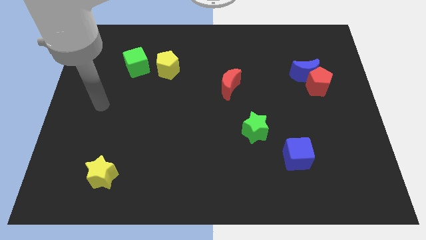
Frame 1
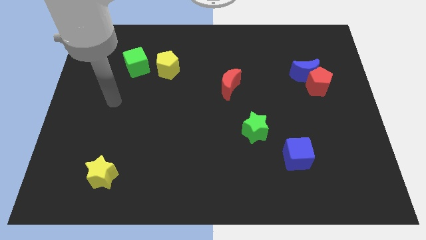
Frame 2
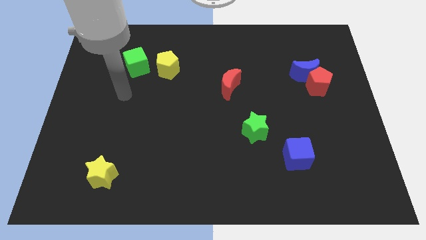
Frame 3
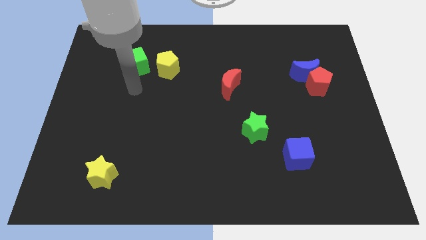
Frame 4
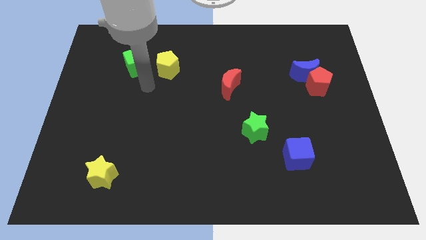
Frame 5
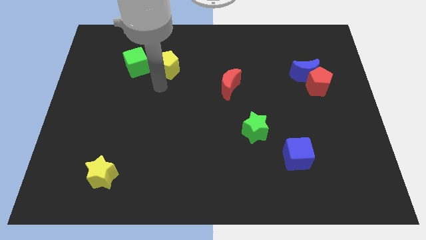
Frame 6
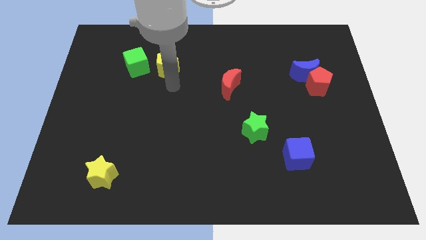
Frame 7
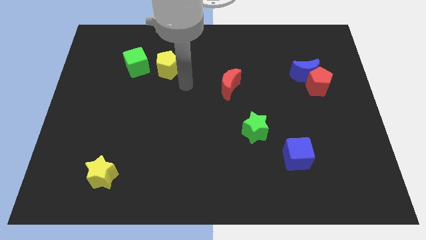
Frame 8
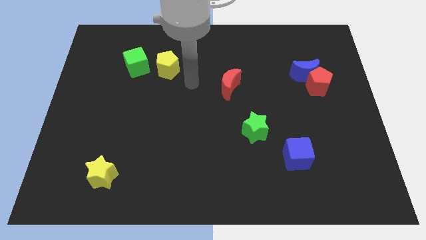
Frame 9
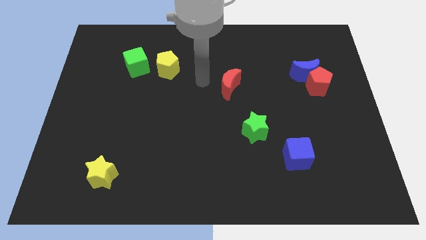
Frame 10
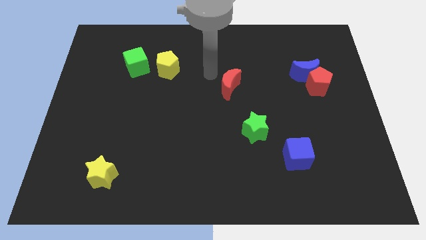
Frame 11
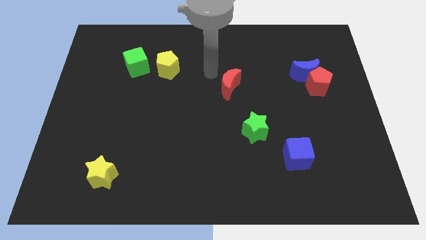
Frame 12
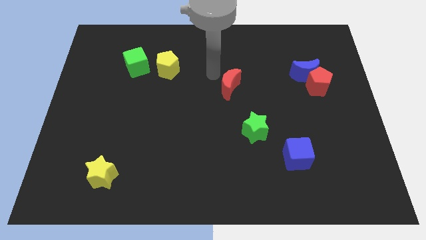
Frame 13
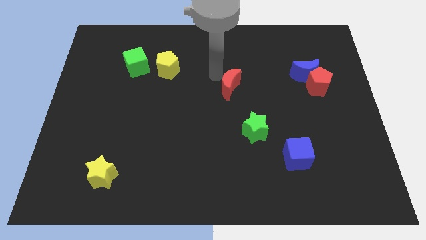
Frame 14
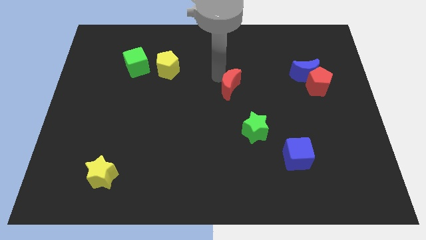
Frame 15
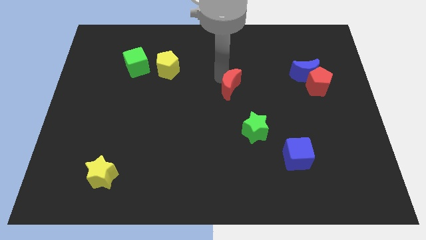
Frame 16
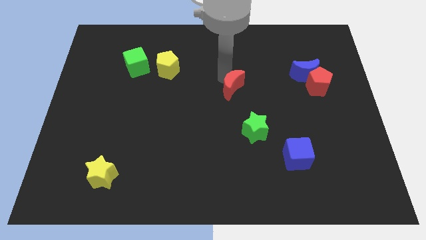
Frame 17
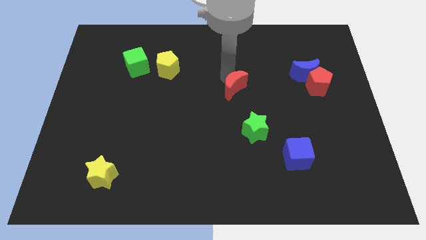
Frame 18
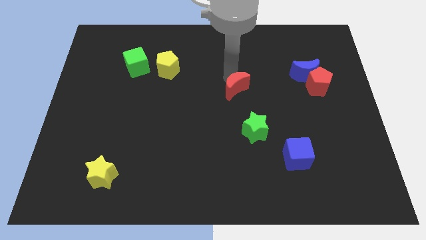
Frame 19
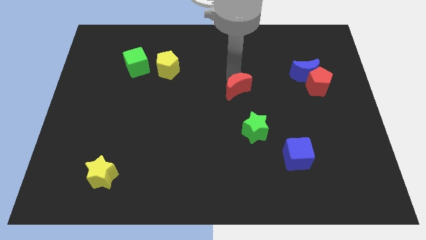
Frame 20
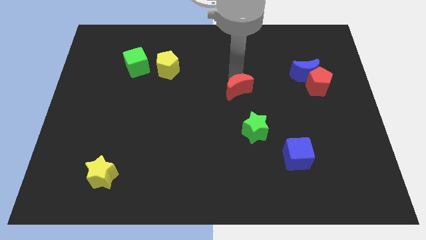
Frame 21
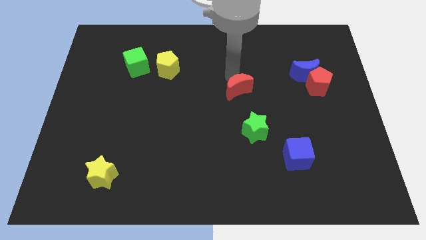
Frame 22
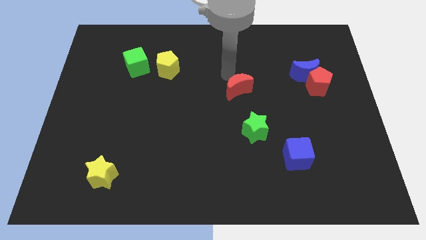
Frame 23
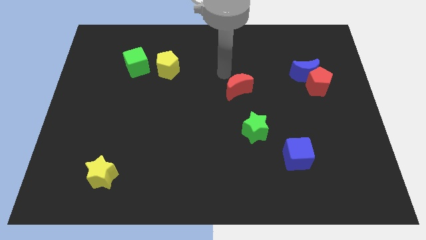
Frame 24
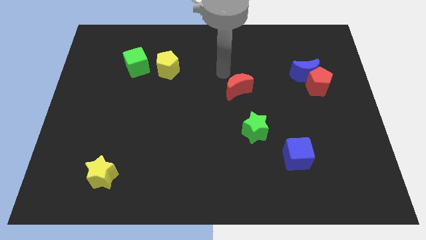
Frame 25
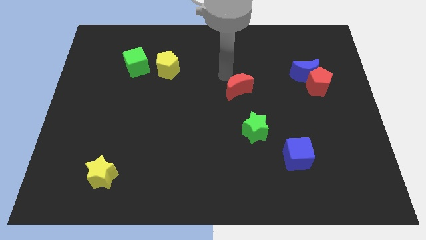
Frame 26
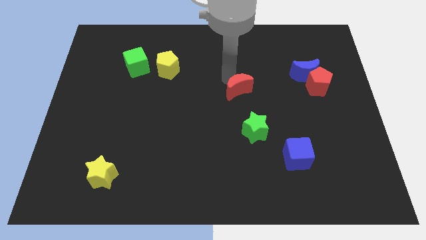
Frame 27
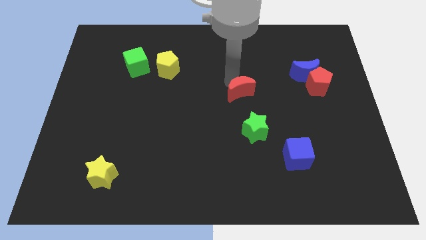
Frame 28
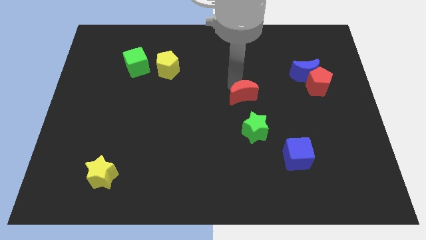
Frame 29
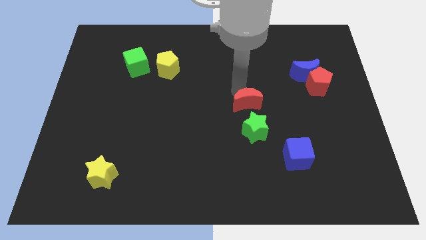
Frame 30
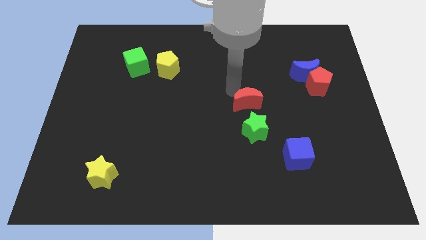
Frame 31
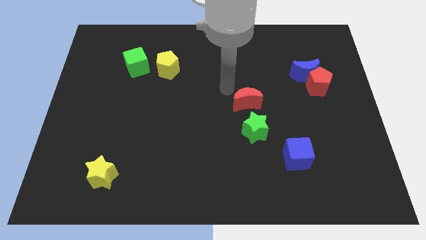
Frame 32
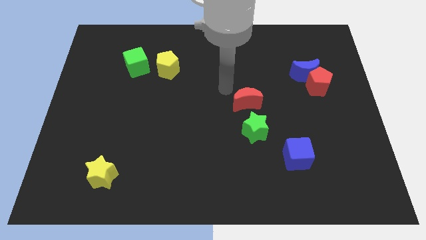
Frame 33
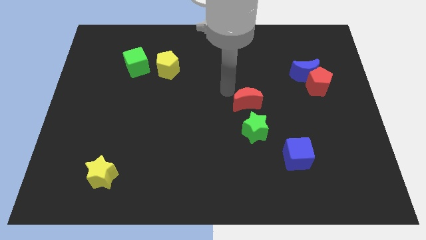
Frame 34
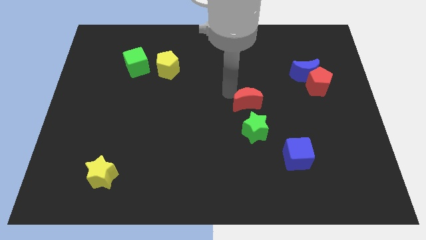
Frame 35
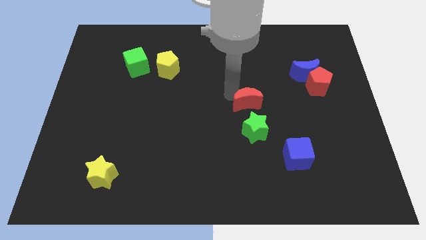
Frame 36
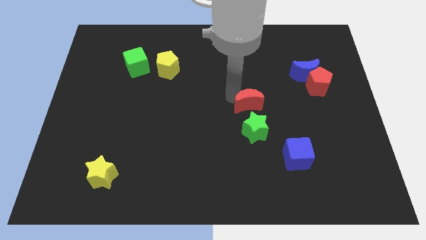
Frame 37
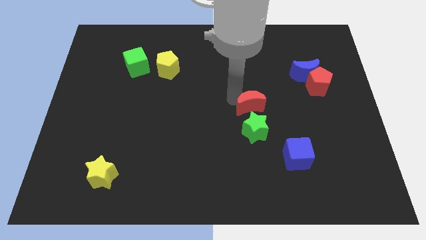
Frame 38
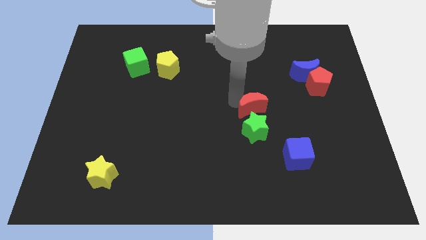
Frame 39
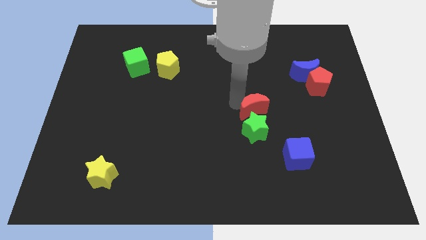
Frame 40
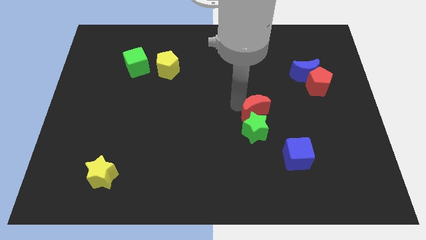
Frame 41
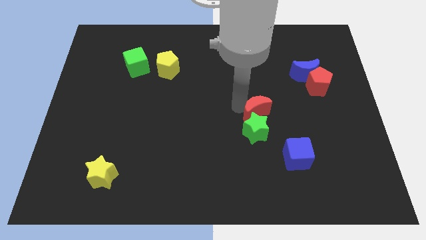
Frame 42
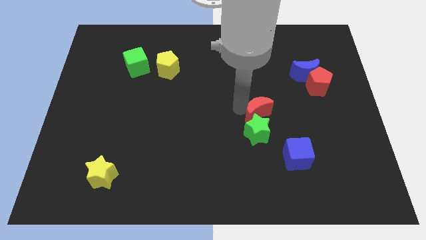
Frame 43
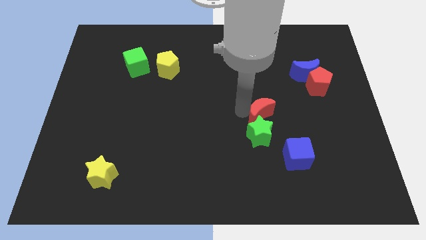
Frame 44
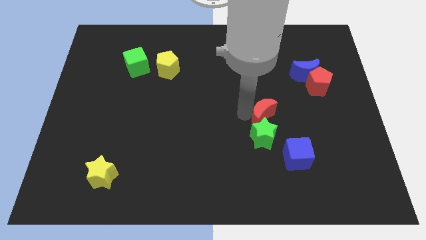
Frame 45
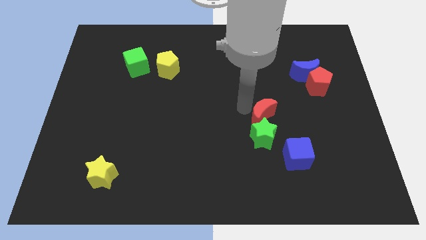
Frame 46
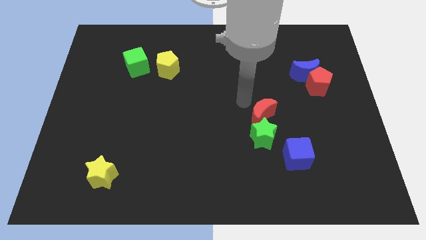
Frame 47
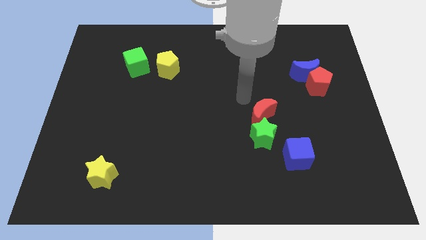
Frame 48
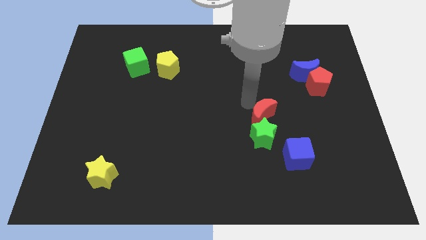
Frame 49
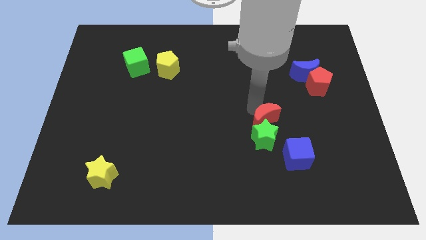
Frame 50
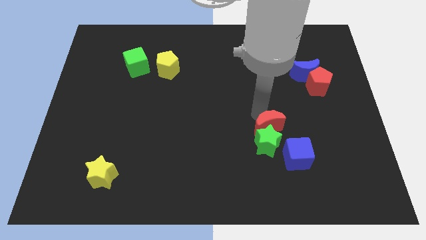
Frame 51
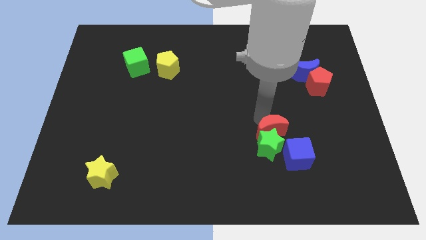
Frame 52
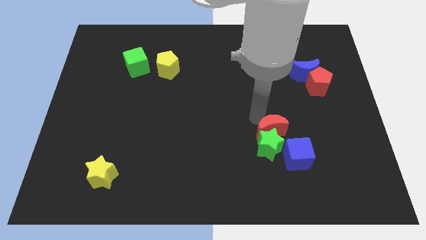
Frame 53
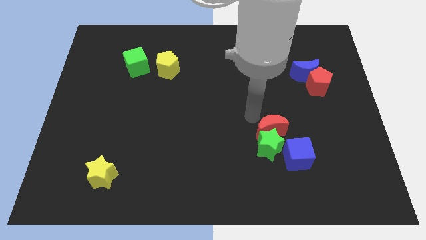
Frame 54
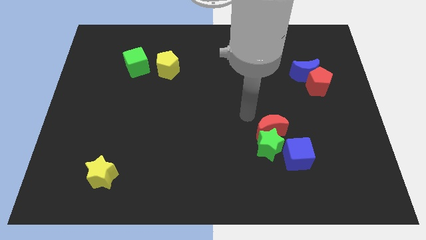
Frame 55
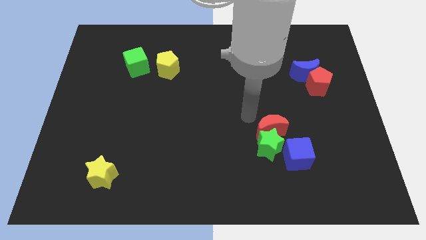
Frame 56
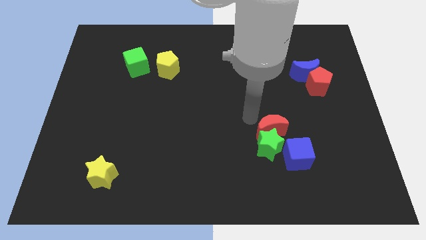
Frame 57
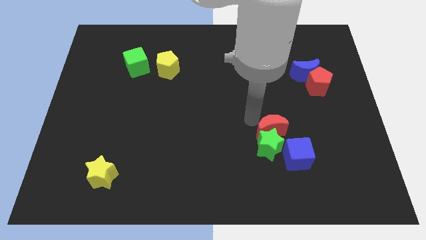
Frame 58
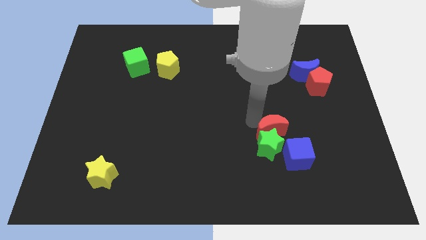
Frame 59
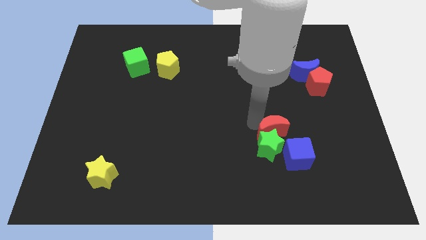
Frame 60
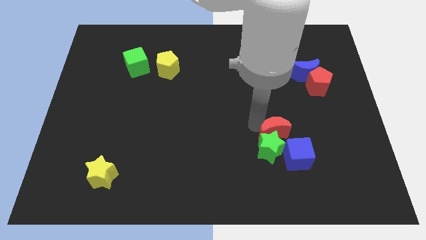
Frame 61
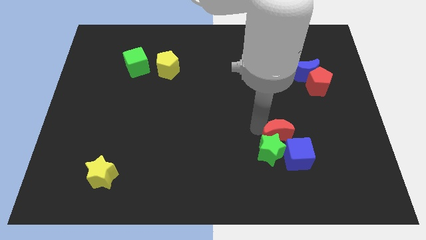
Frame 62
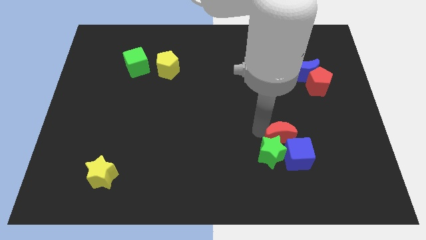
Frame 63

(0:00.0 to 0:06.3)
put the red moon close to the blue cube

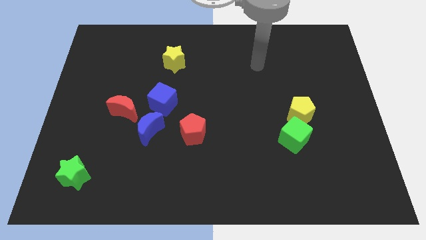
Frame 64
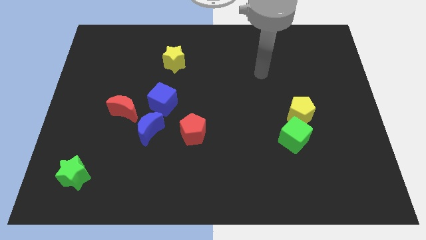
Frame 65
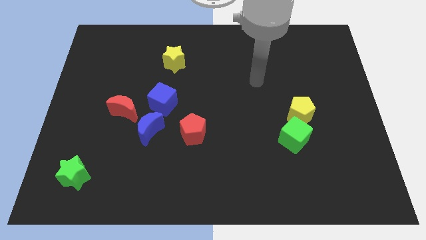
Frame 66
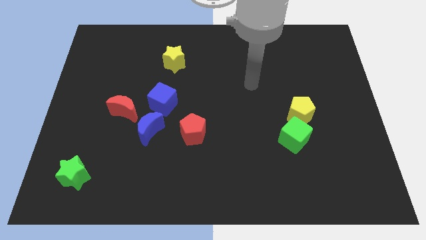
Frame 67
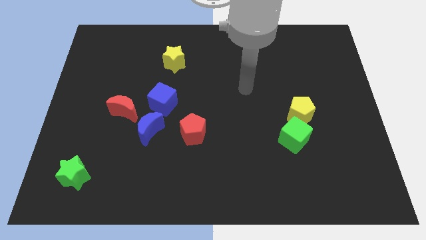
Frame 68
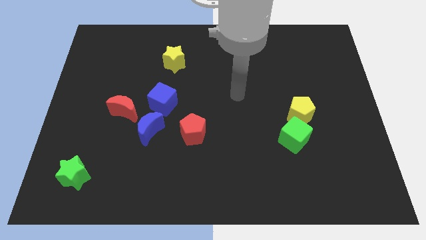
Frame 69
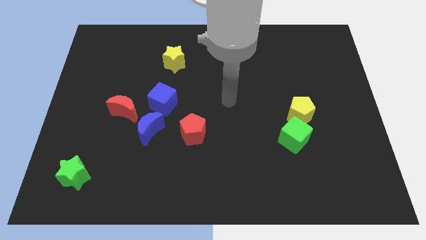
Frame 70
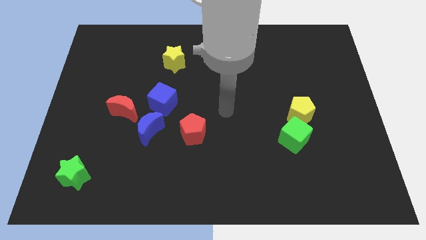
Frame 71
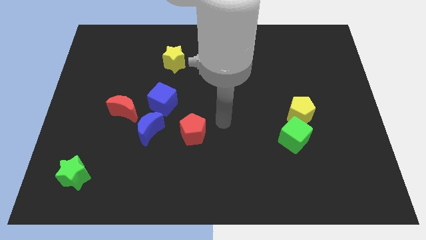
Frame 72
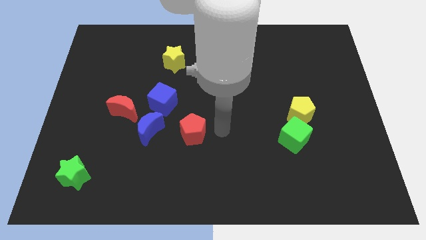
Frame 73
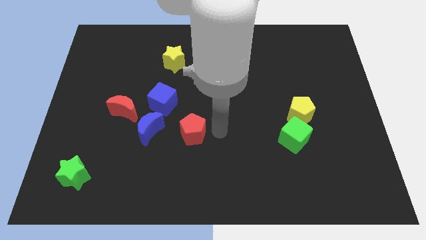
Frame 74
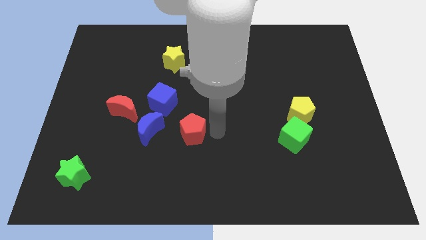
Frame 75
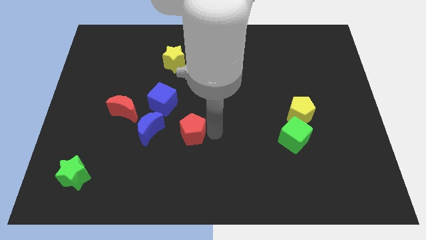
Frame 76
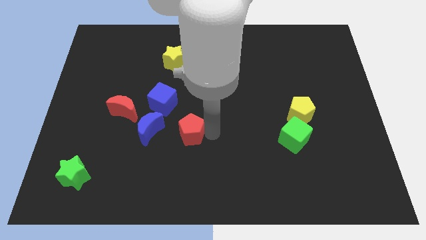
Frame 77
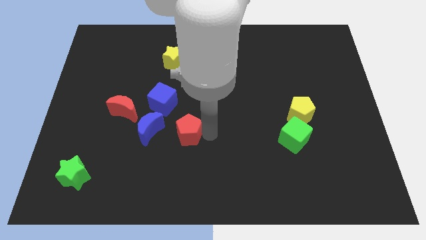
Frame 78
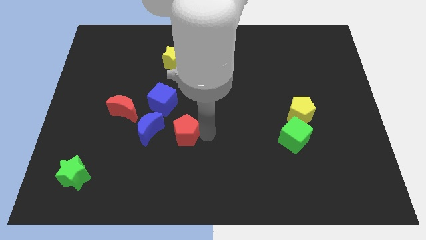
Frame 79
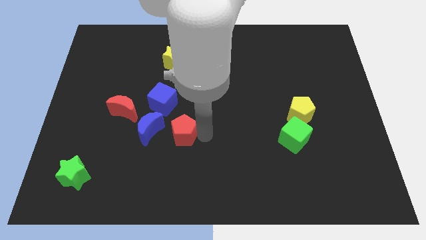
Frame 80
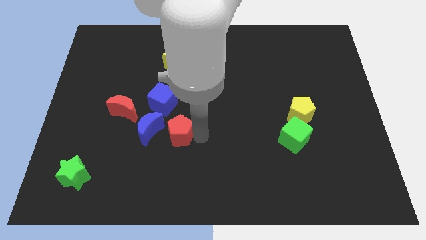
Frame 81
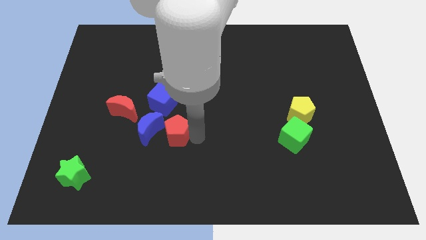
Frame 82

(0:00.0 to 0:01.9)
move the red pentagon to the blue moon
